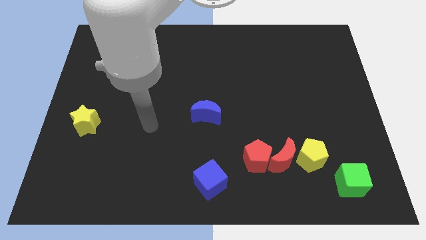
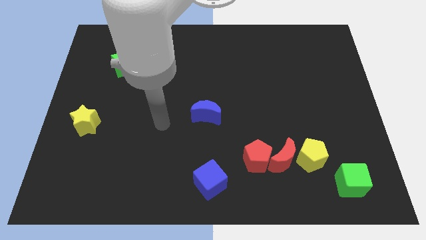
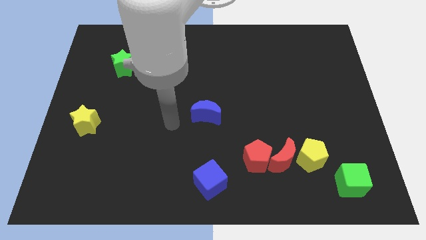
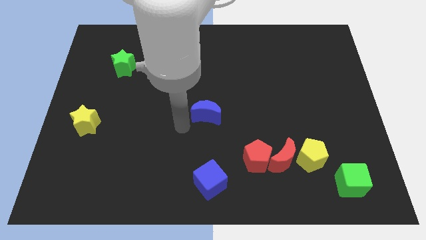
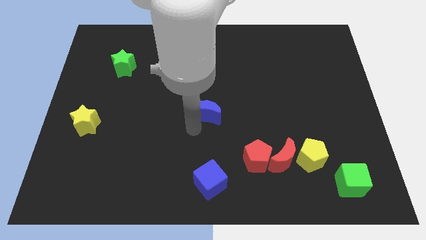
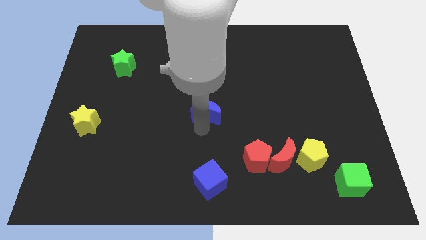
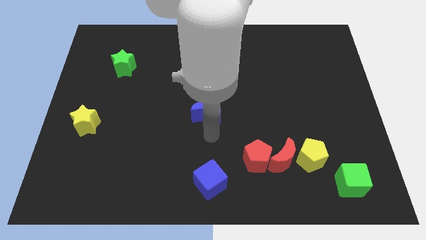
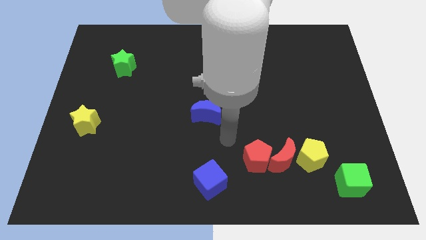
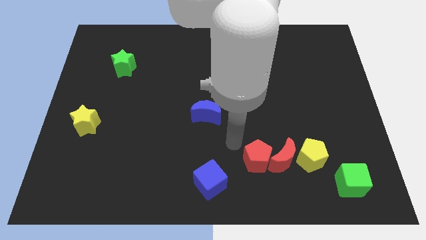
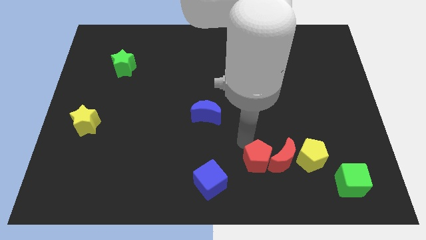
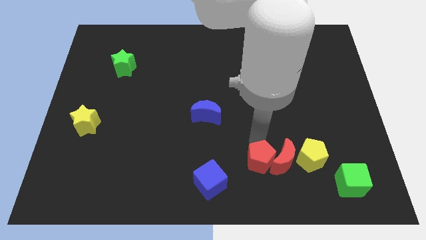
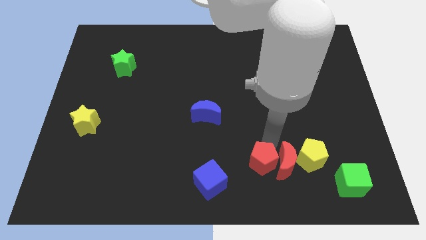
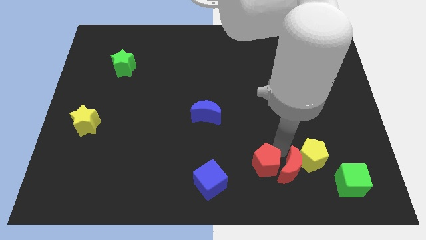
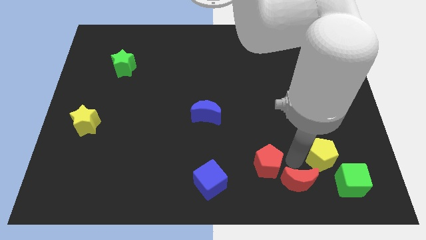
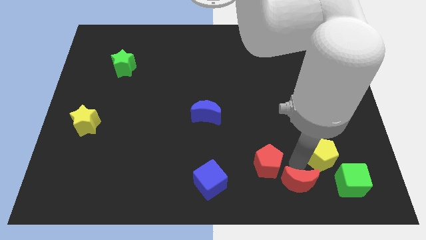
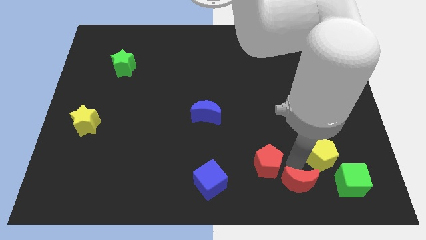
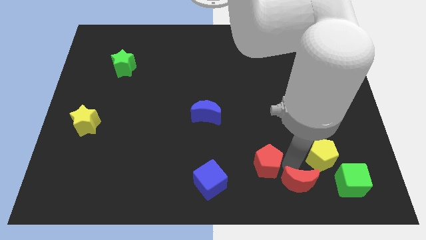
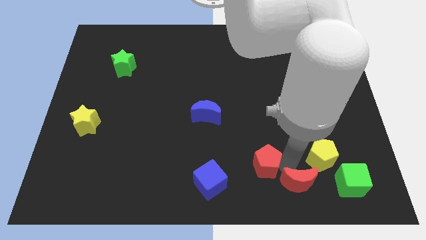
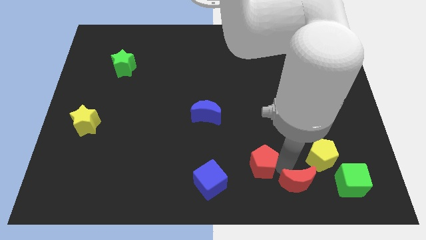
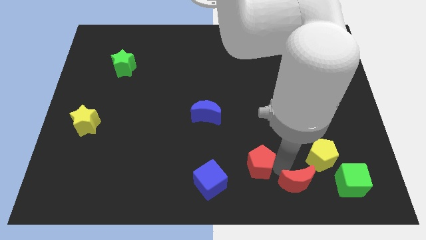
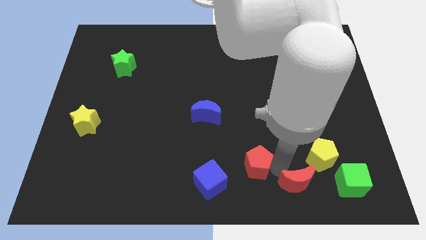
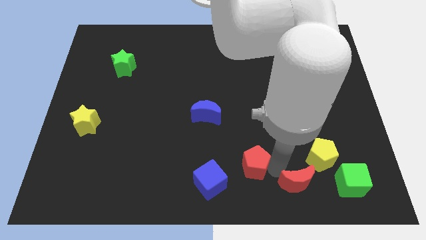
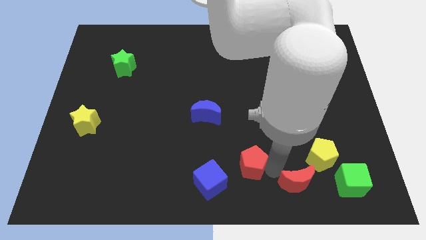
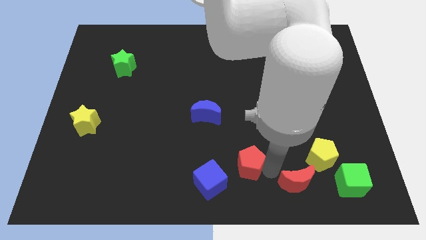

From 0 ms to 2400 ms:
pull the red pentagon apart from the red moon

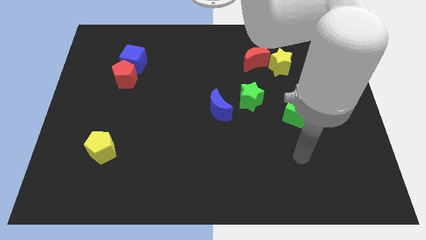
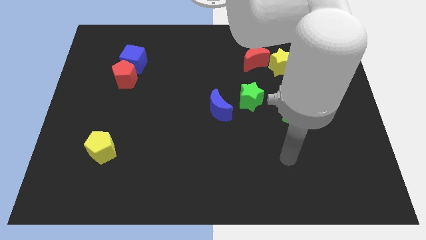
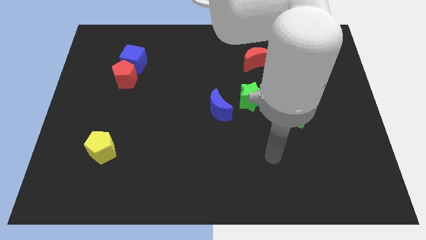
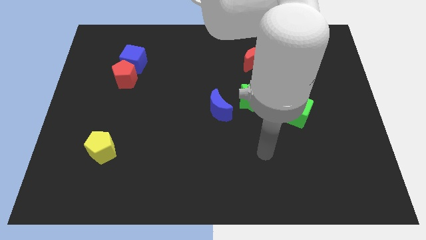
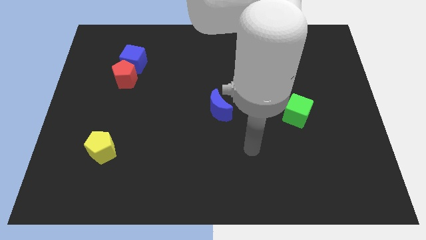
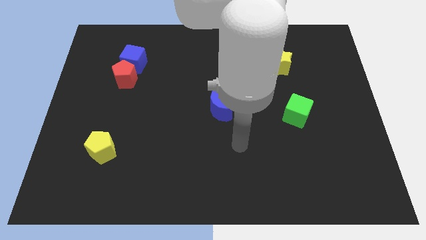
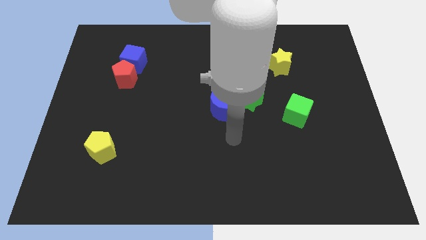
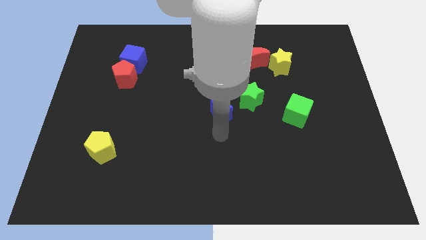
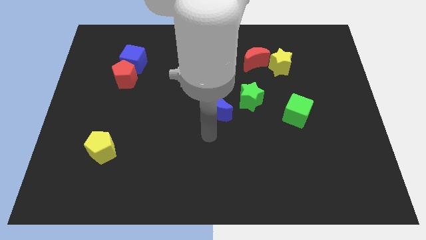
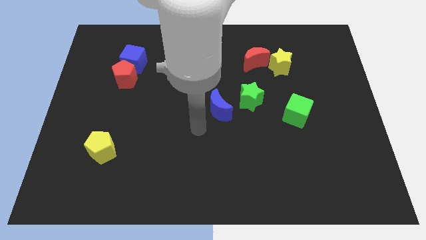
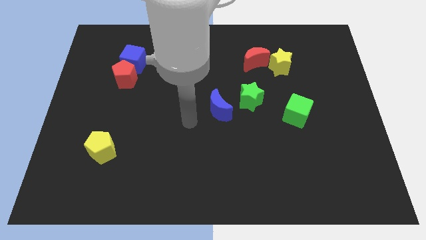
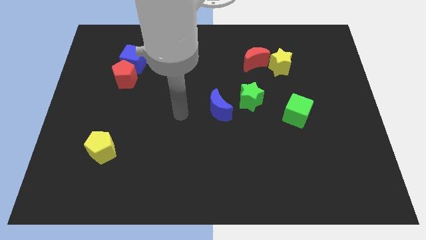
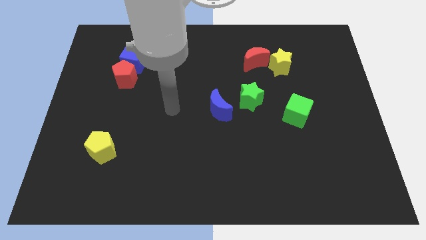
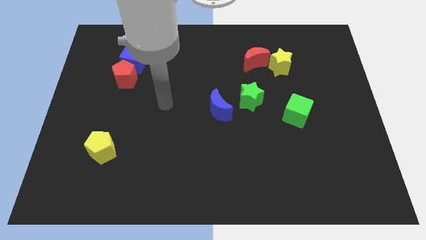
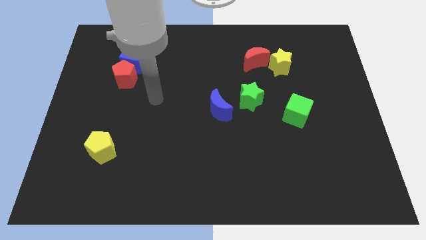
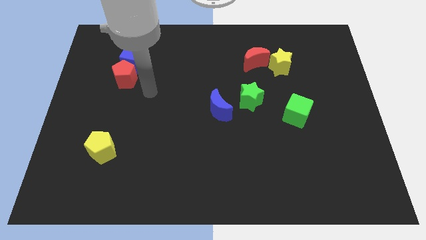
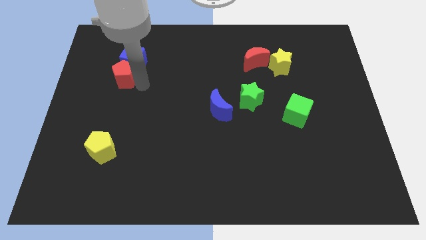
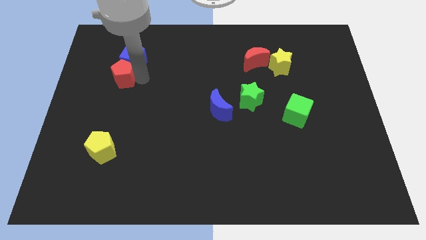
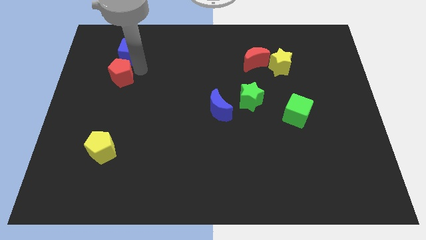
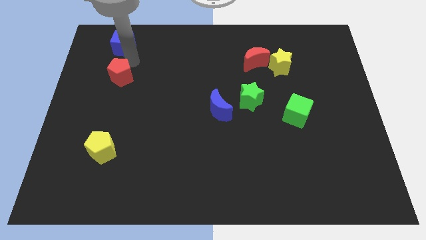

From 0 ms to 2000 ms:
pull the red pentagon apart from the blue cube

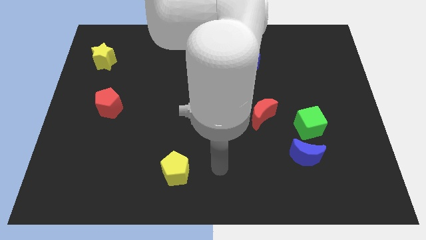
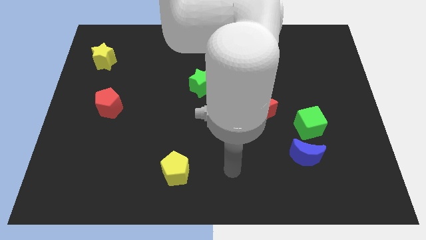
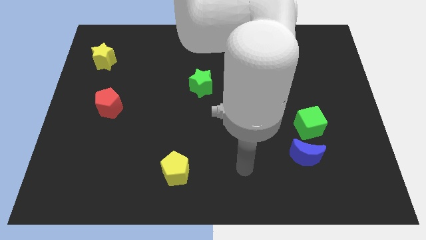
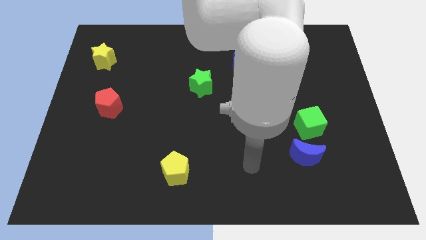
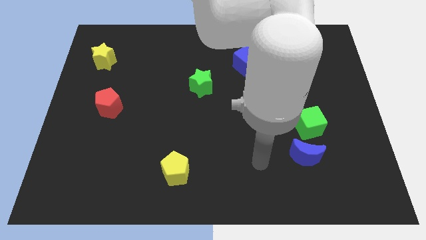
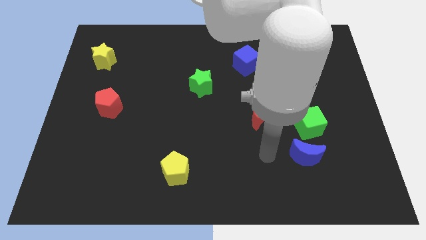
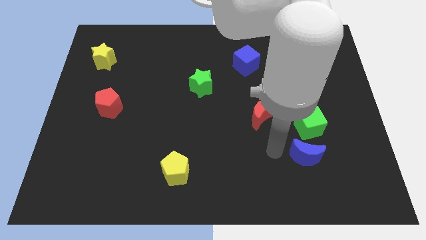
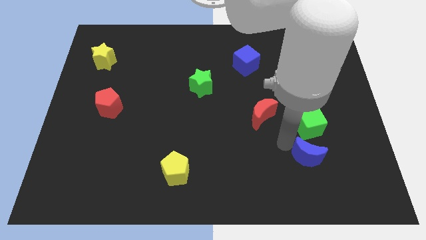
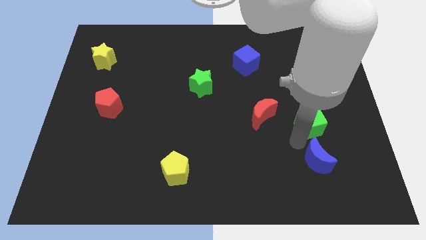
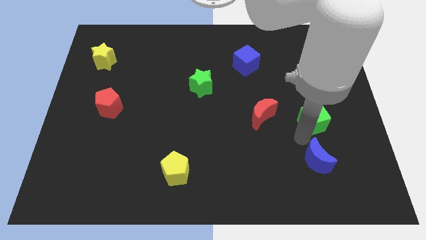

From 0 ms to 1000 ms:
pull the blue moon apart from the green cube

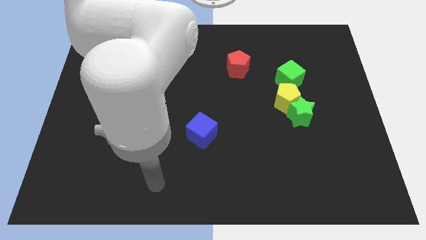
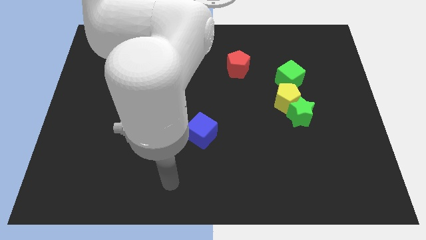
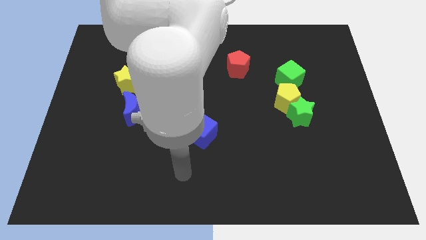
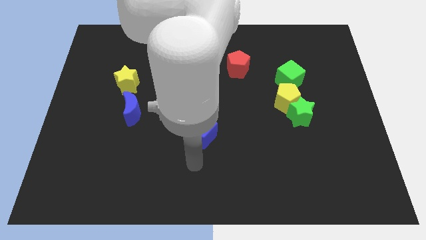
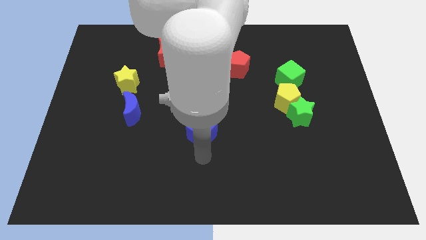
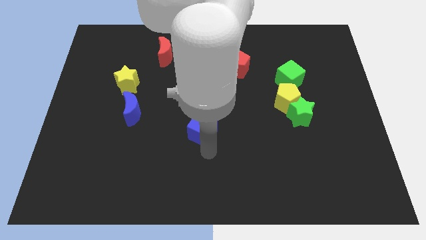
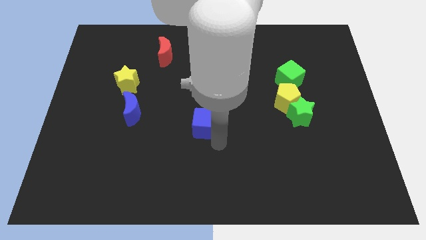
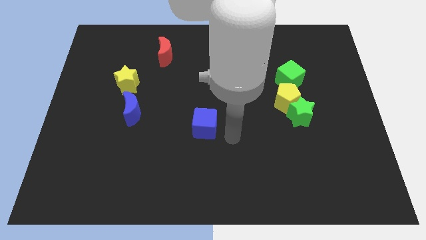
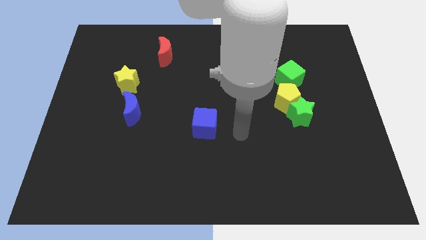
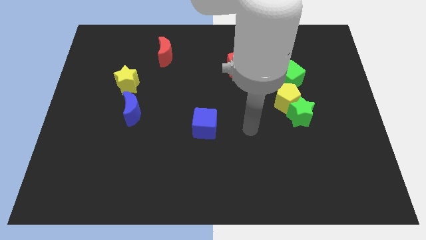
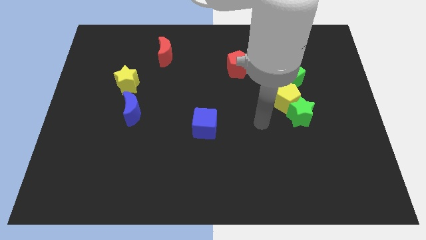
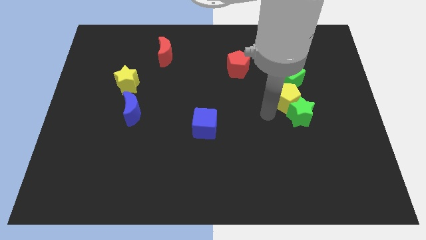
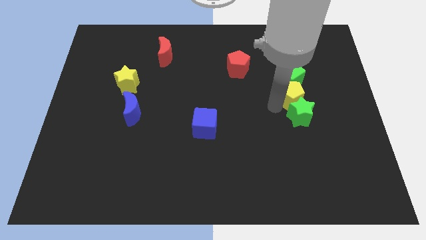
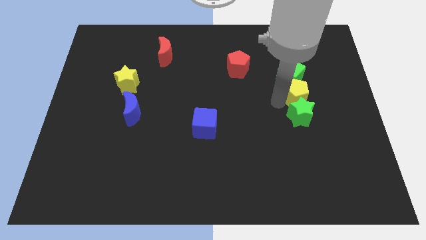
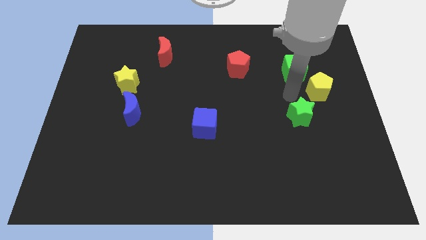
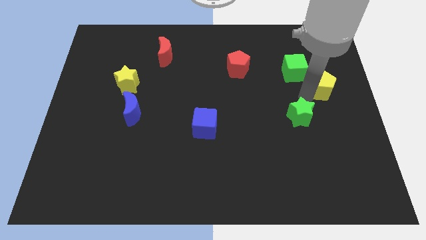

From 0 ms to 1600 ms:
separate the green star from the yellow pentagon

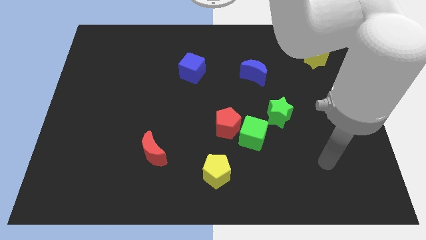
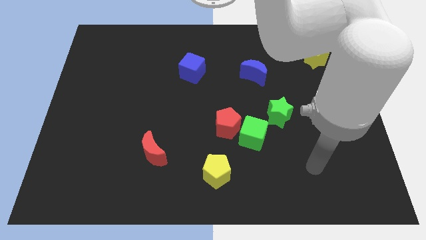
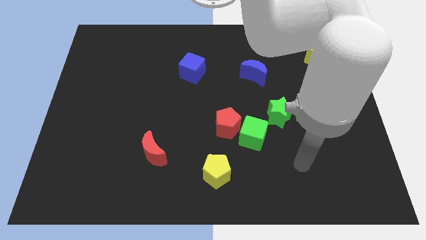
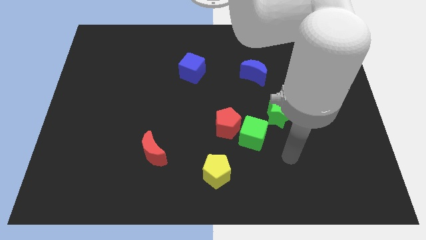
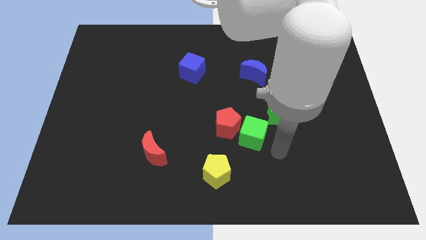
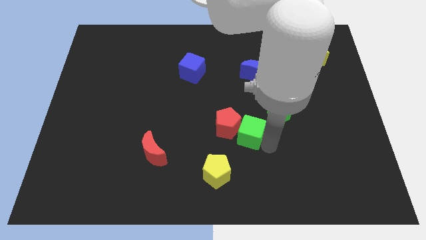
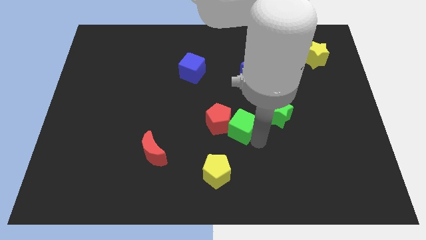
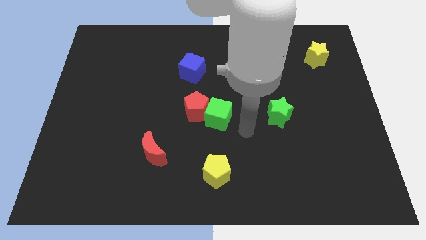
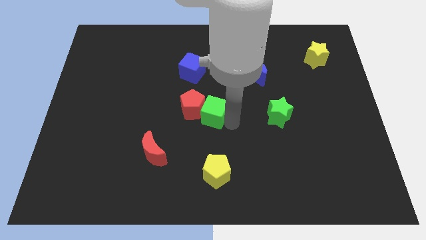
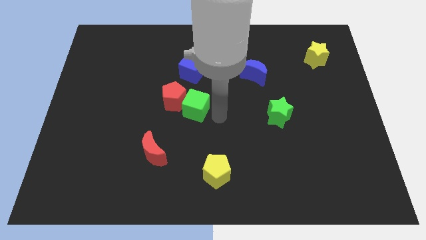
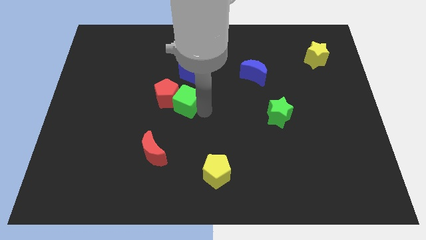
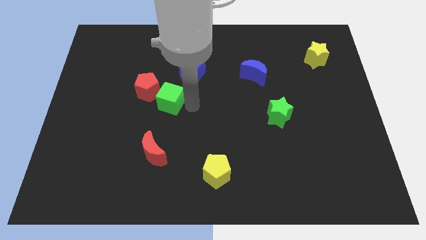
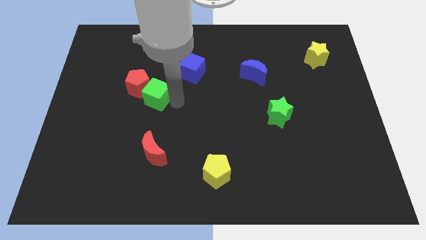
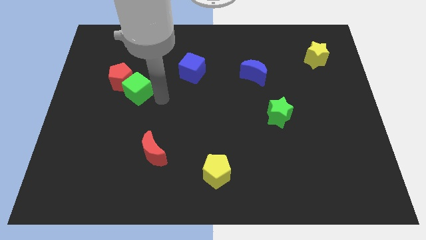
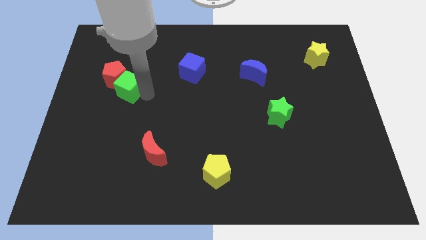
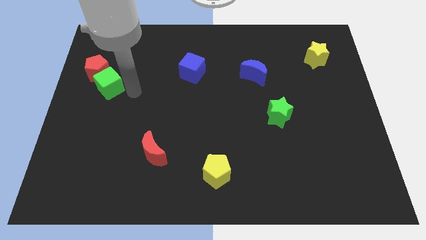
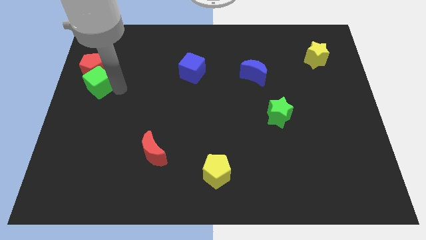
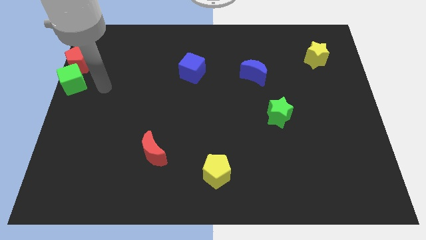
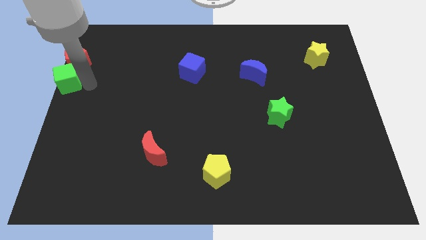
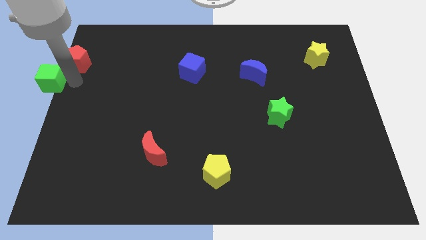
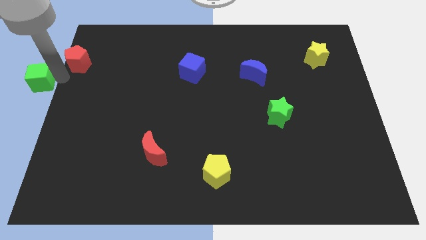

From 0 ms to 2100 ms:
move the red pentagon away from the green cube

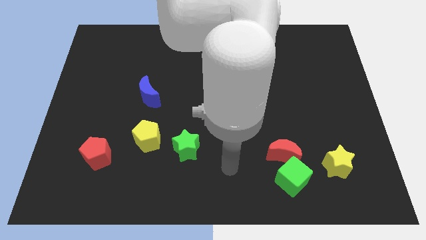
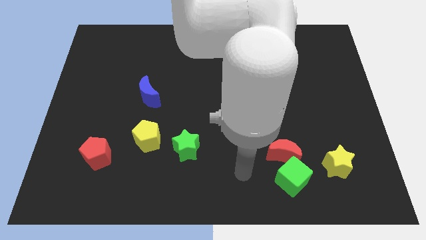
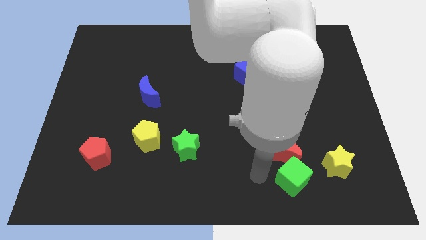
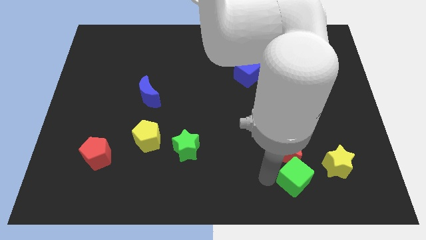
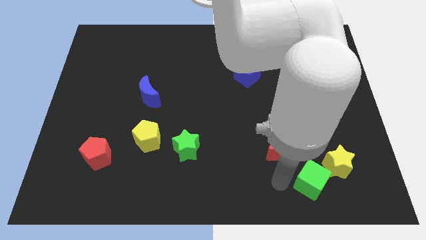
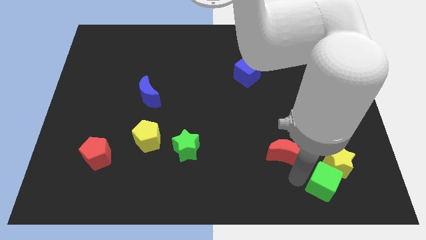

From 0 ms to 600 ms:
pull the red moon apart from the green cube
